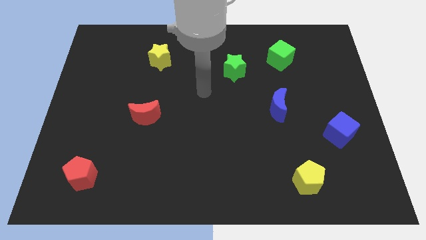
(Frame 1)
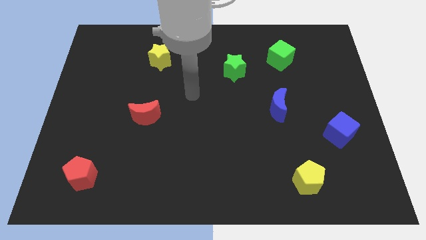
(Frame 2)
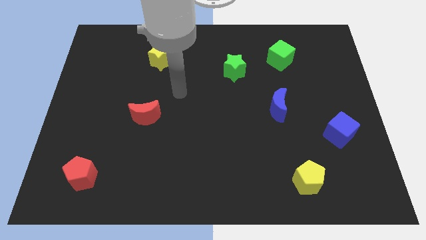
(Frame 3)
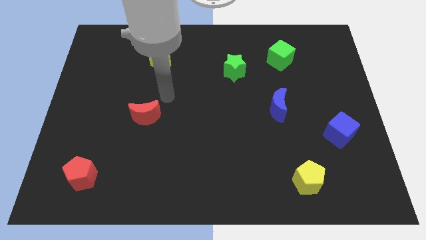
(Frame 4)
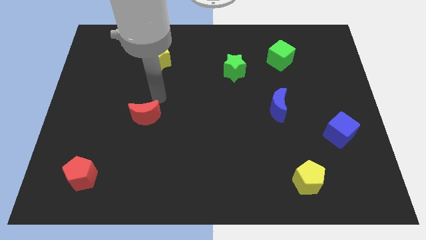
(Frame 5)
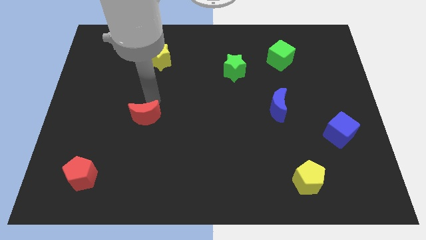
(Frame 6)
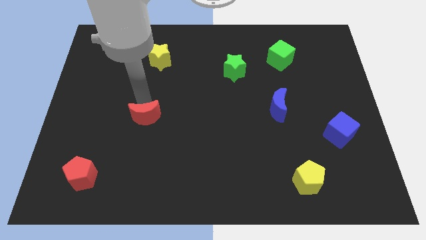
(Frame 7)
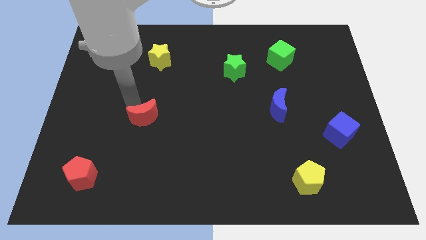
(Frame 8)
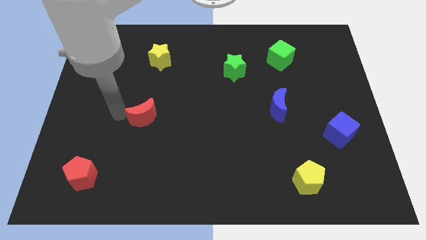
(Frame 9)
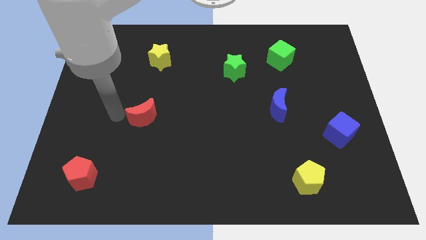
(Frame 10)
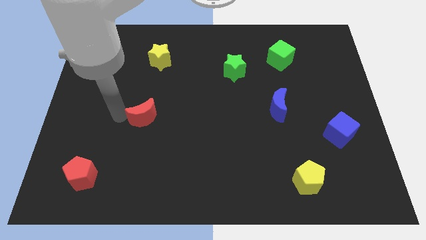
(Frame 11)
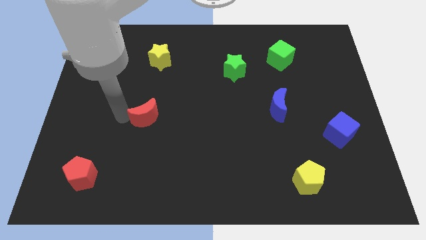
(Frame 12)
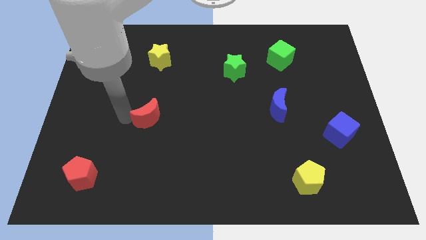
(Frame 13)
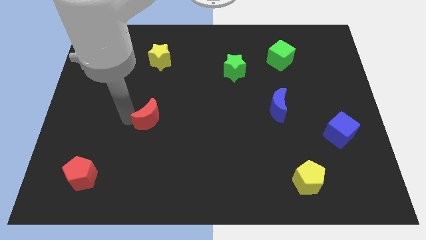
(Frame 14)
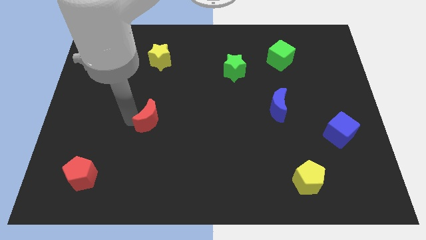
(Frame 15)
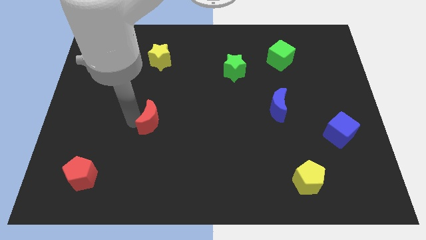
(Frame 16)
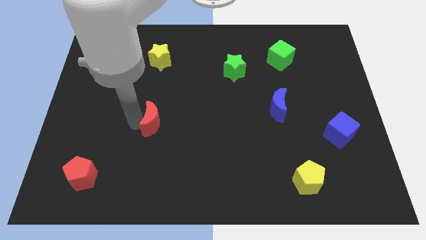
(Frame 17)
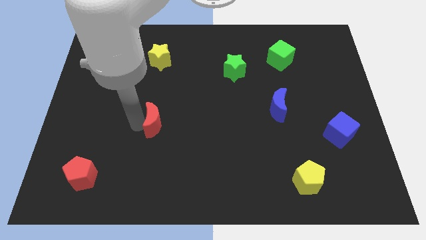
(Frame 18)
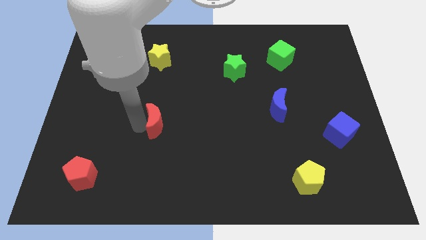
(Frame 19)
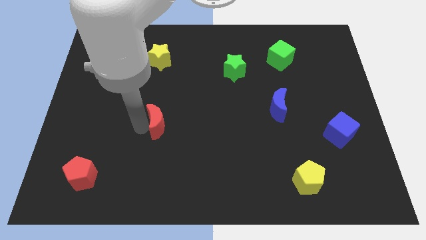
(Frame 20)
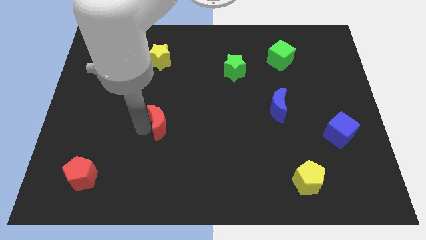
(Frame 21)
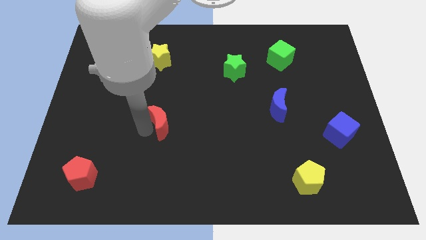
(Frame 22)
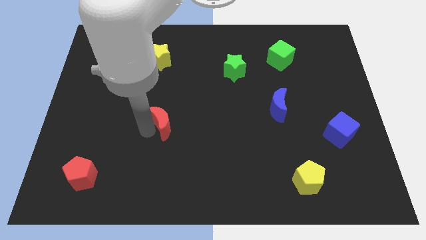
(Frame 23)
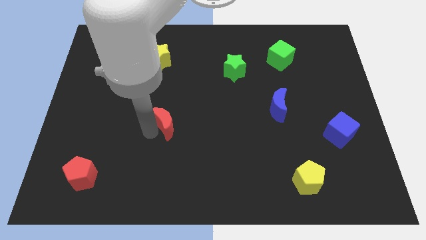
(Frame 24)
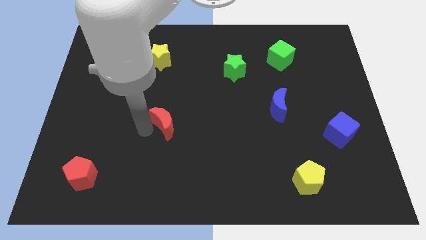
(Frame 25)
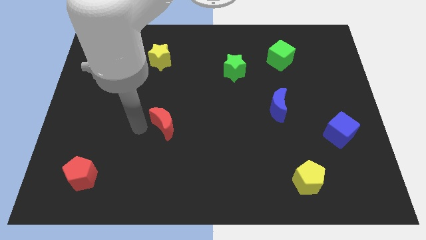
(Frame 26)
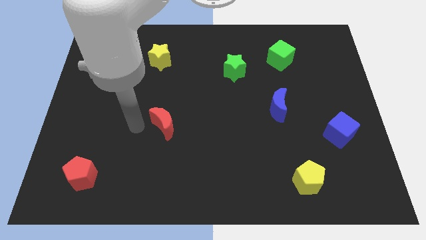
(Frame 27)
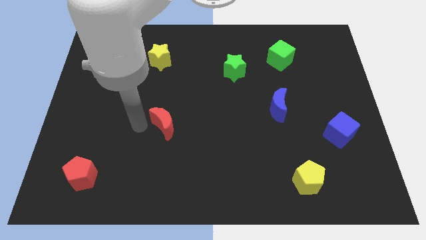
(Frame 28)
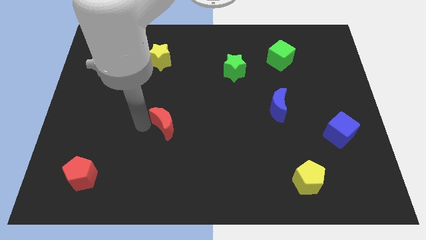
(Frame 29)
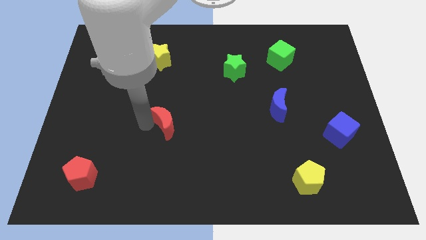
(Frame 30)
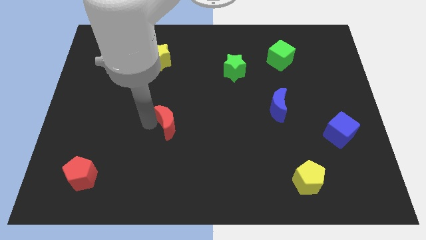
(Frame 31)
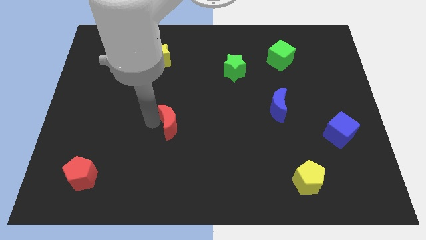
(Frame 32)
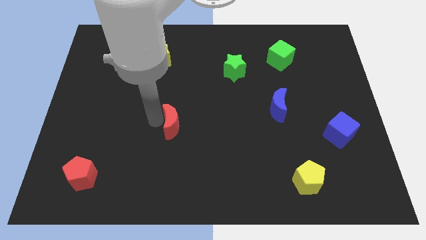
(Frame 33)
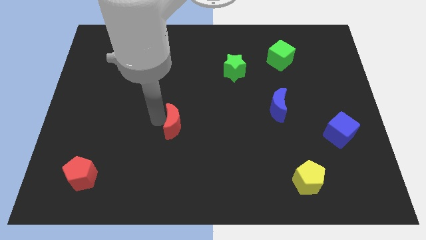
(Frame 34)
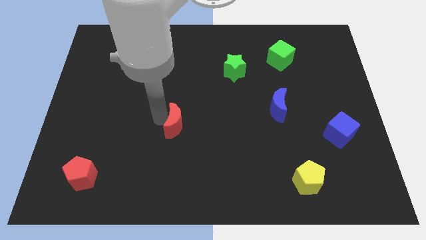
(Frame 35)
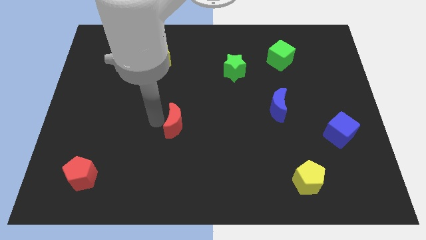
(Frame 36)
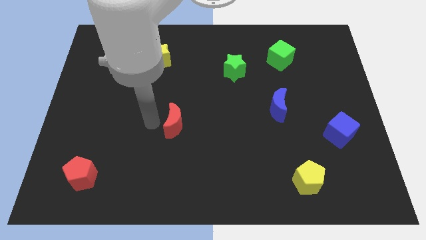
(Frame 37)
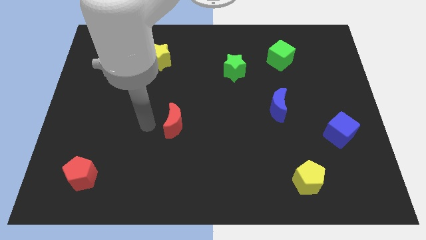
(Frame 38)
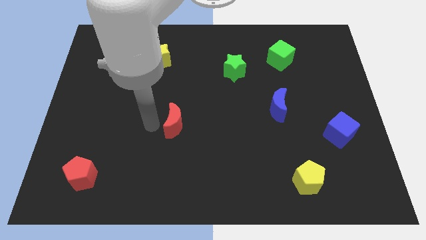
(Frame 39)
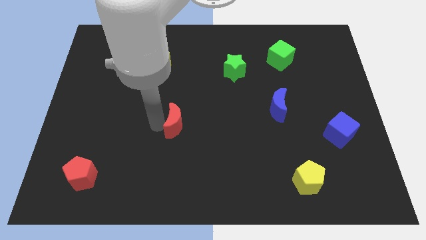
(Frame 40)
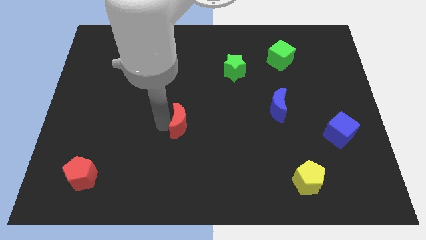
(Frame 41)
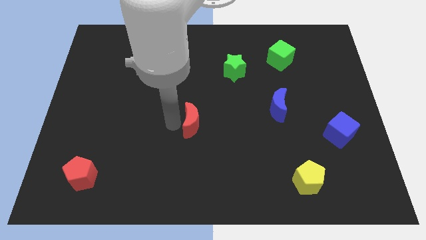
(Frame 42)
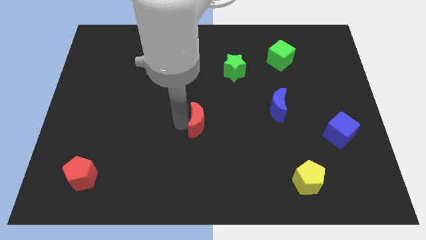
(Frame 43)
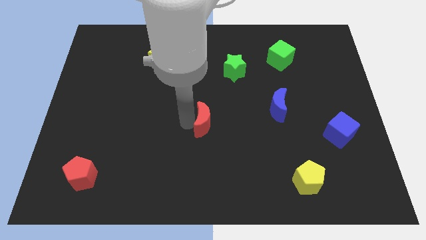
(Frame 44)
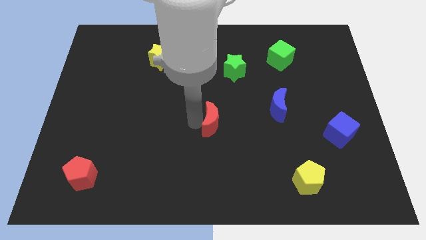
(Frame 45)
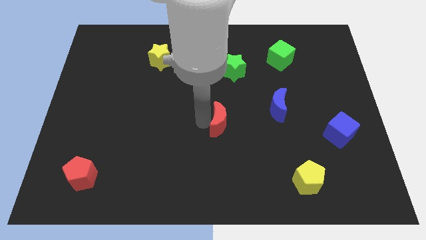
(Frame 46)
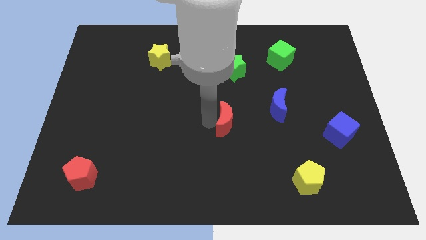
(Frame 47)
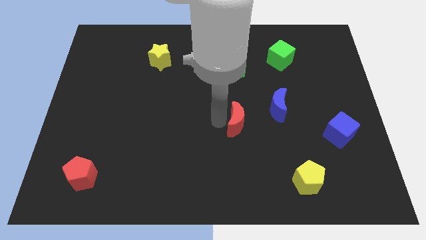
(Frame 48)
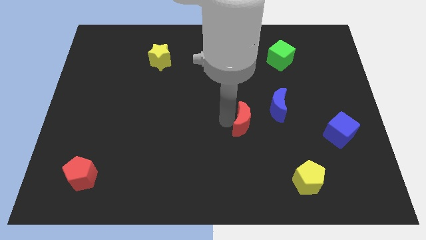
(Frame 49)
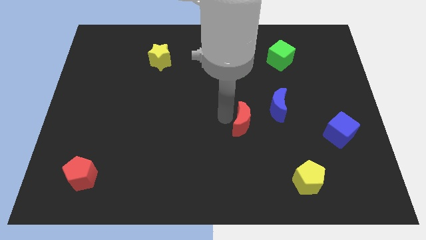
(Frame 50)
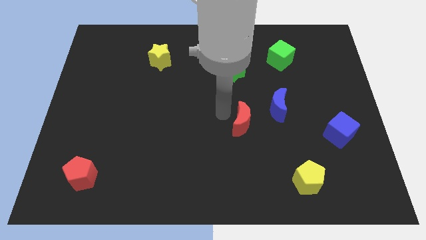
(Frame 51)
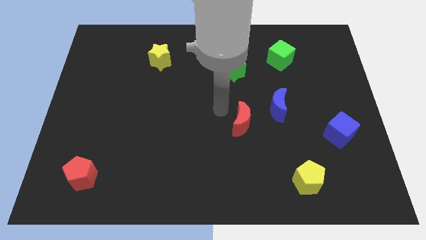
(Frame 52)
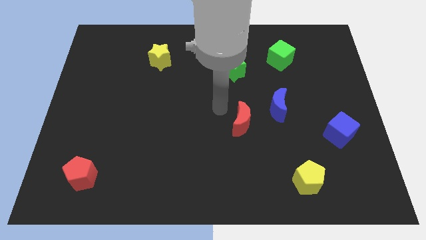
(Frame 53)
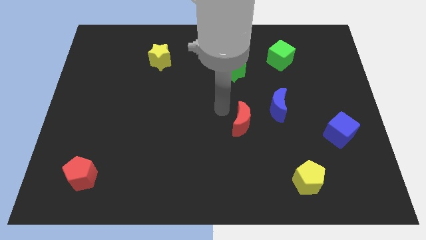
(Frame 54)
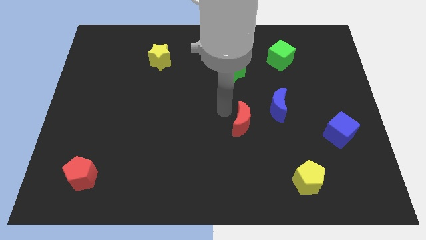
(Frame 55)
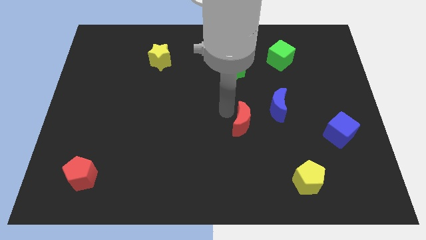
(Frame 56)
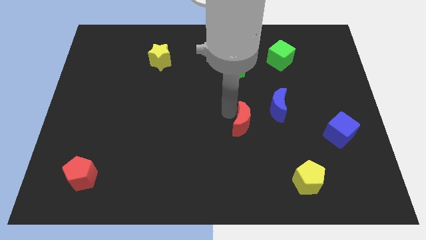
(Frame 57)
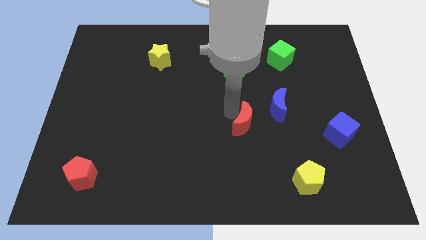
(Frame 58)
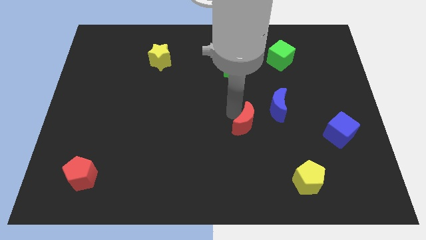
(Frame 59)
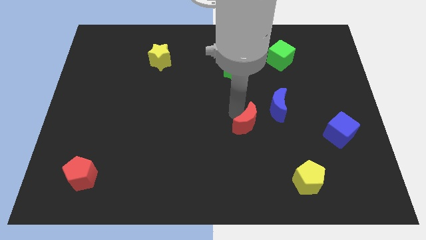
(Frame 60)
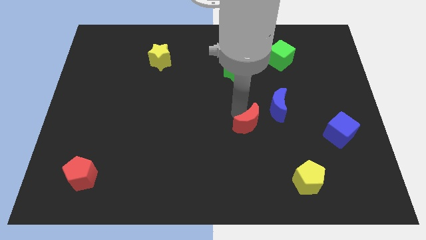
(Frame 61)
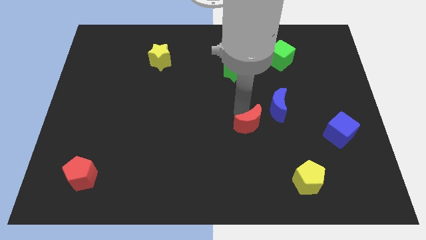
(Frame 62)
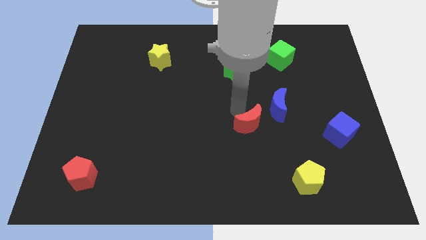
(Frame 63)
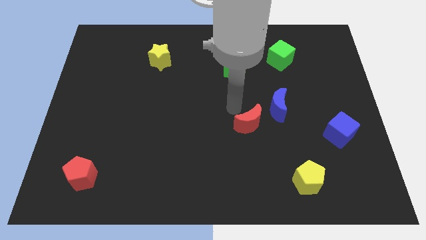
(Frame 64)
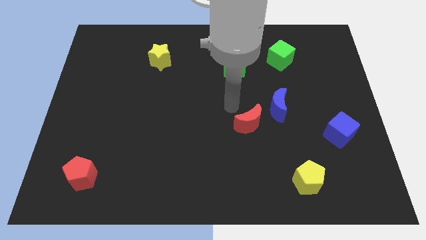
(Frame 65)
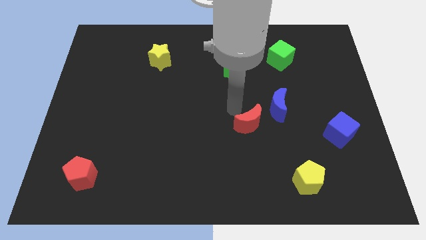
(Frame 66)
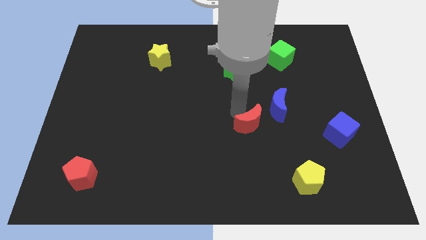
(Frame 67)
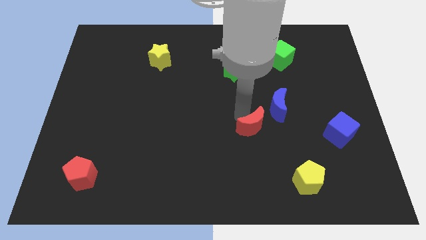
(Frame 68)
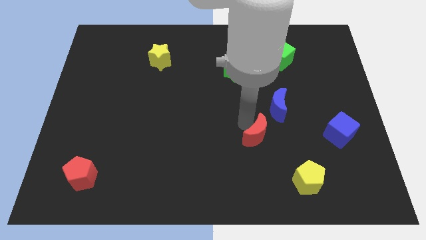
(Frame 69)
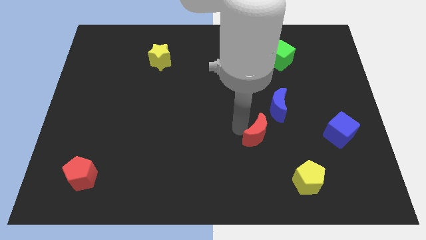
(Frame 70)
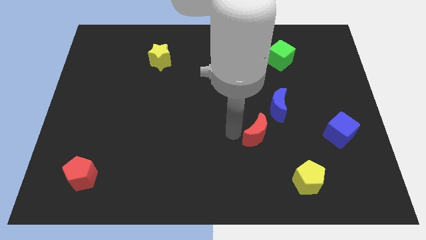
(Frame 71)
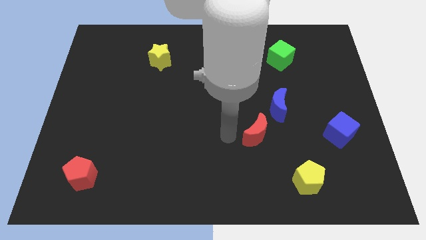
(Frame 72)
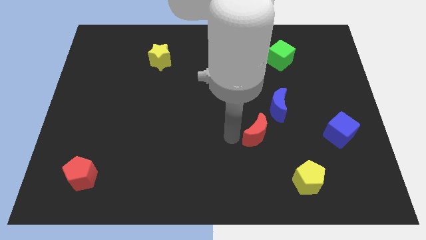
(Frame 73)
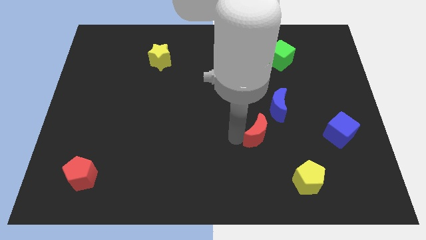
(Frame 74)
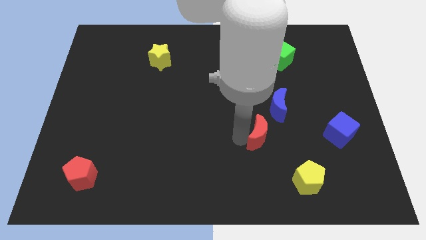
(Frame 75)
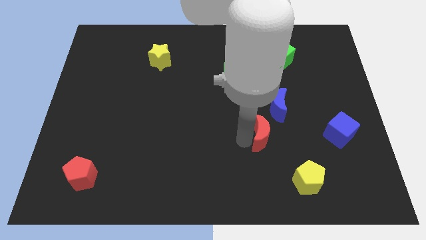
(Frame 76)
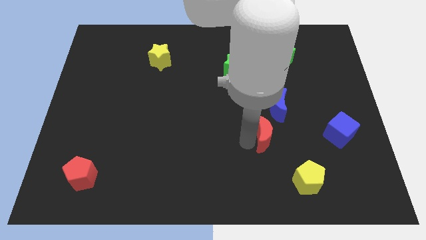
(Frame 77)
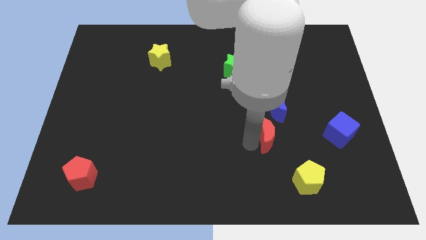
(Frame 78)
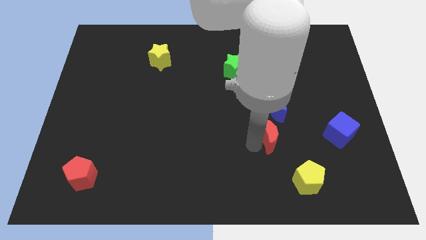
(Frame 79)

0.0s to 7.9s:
push the red moon to the left side of the blue cube
